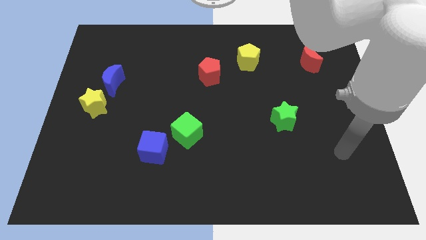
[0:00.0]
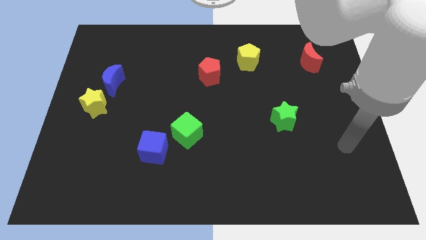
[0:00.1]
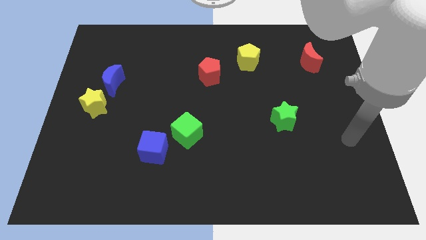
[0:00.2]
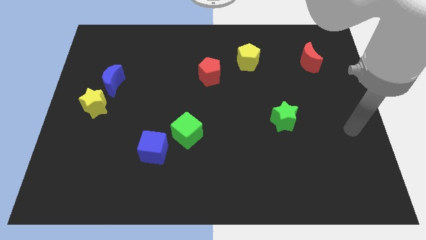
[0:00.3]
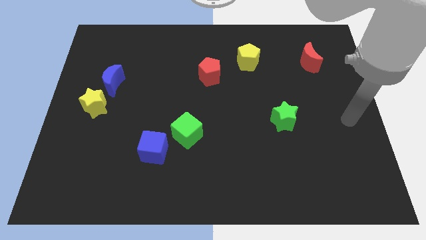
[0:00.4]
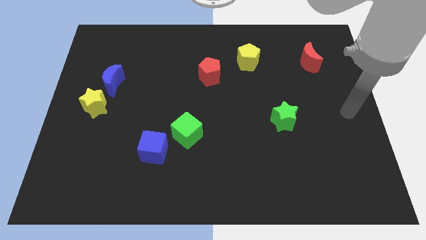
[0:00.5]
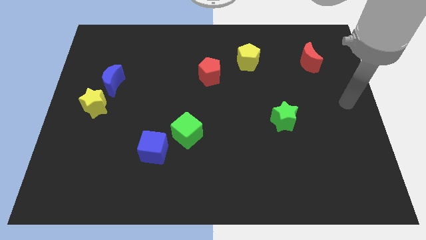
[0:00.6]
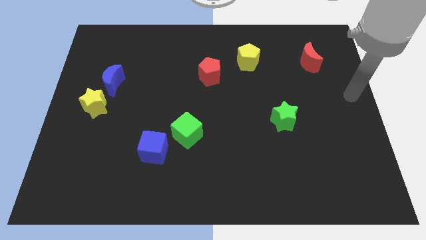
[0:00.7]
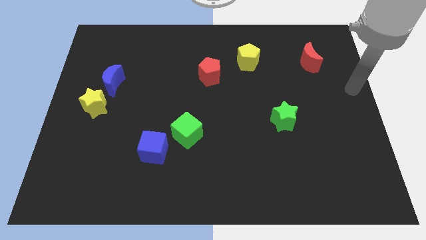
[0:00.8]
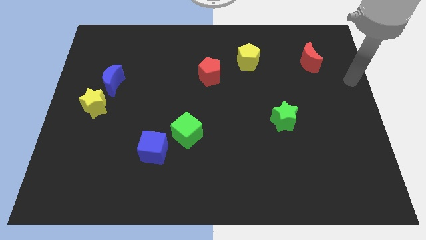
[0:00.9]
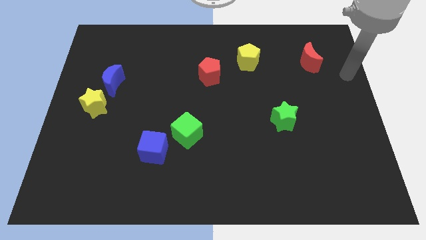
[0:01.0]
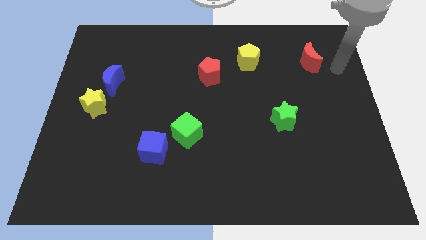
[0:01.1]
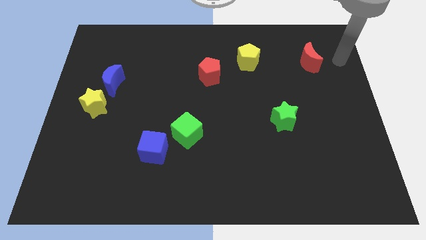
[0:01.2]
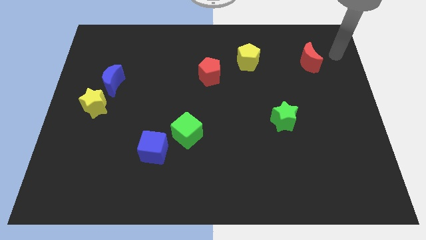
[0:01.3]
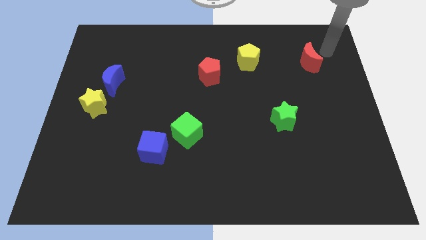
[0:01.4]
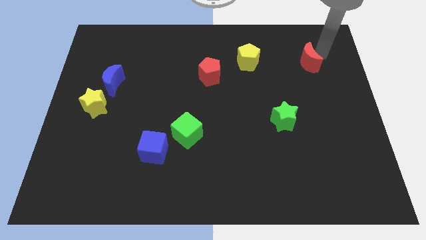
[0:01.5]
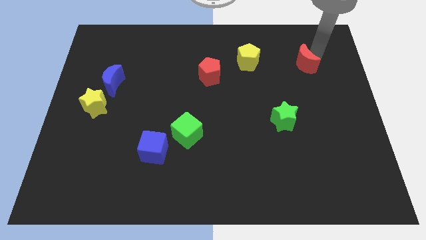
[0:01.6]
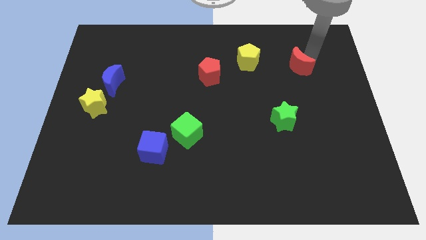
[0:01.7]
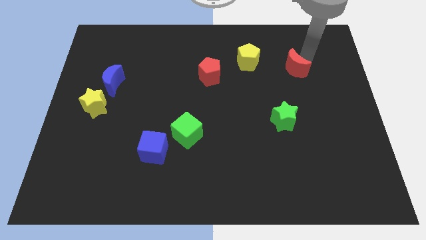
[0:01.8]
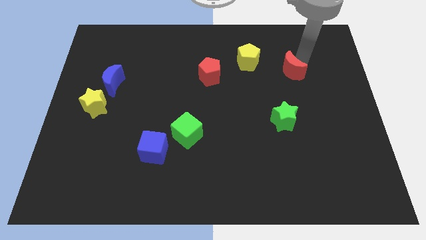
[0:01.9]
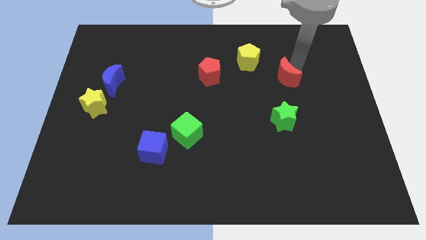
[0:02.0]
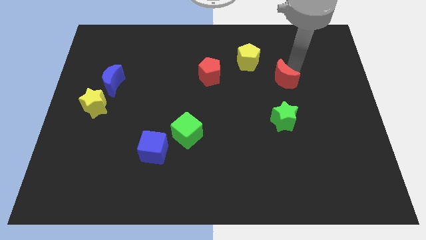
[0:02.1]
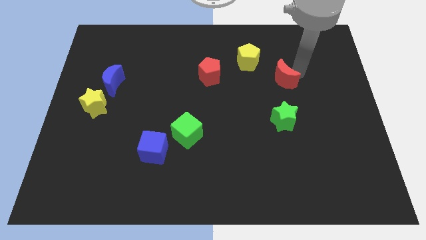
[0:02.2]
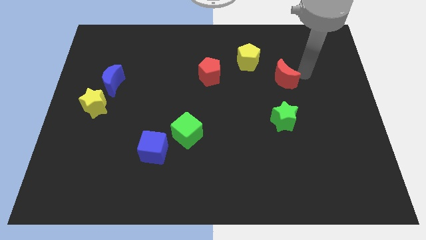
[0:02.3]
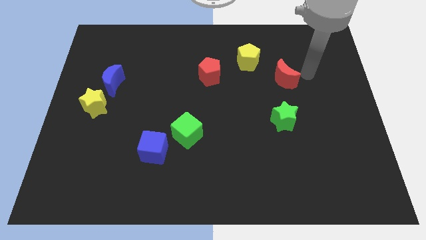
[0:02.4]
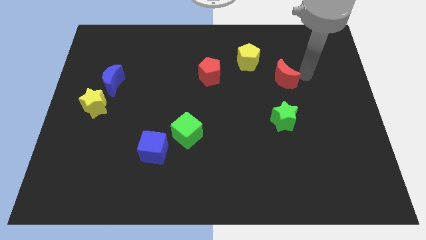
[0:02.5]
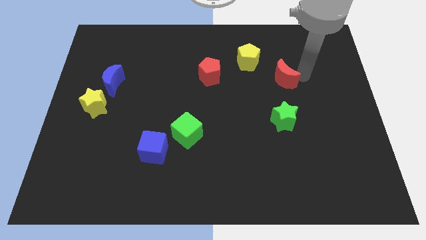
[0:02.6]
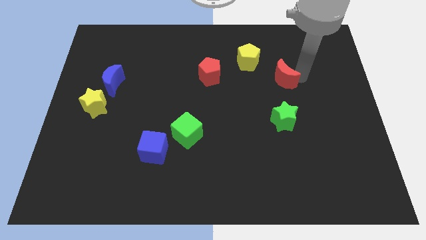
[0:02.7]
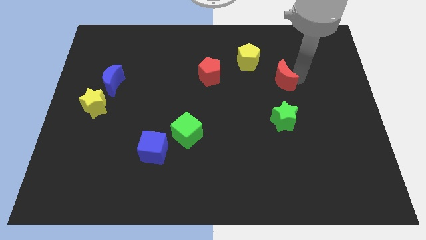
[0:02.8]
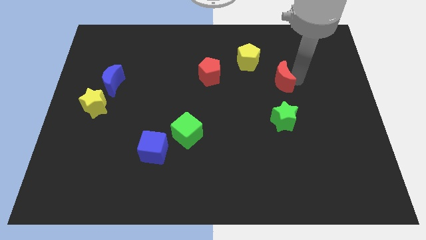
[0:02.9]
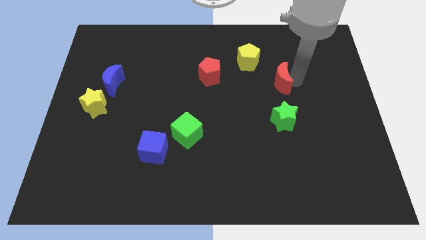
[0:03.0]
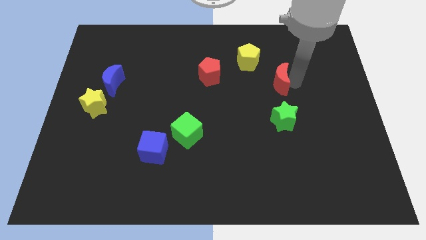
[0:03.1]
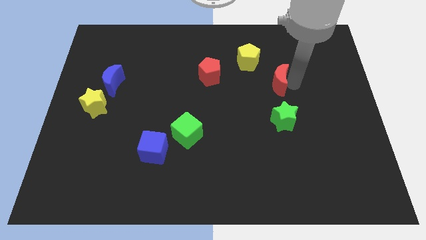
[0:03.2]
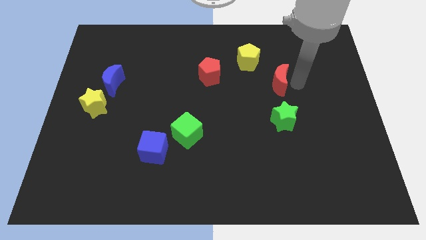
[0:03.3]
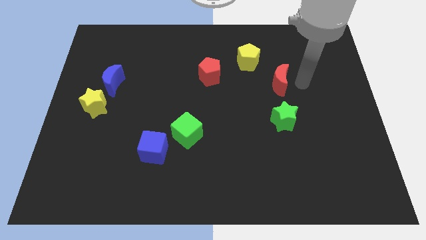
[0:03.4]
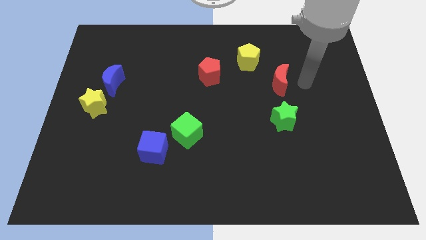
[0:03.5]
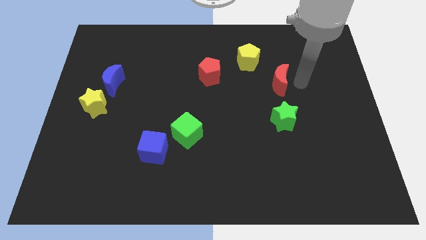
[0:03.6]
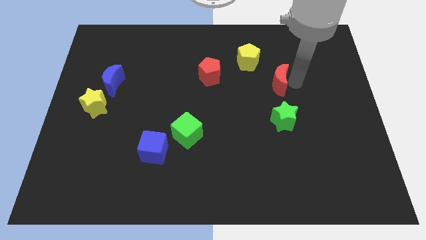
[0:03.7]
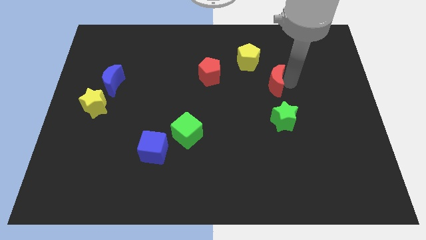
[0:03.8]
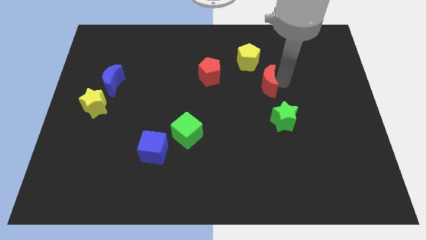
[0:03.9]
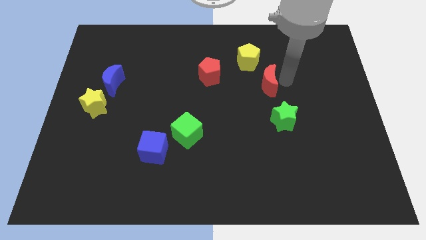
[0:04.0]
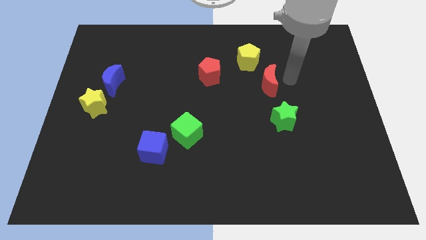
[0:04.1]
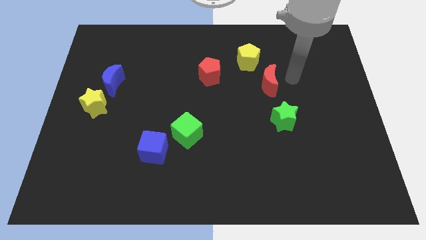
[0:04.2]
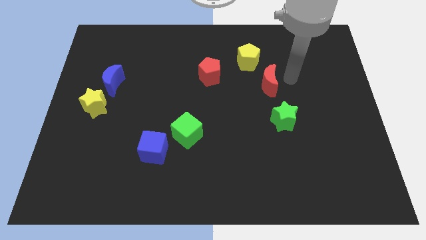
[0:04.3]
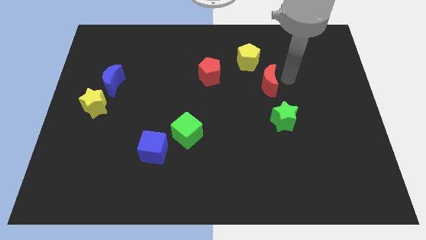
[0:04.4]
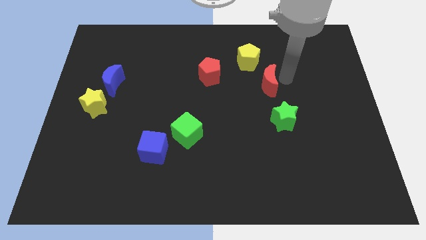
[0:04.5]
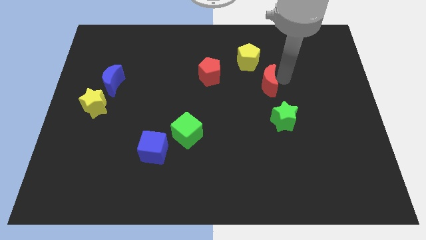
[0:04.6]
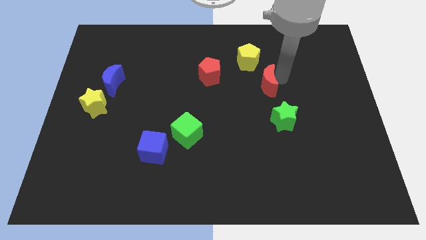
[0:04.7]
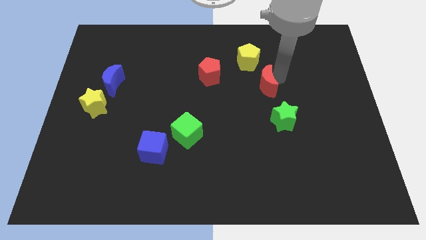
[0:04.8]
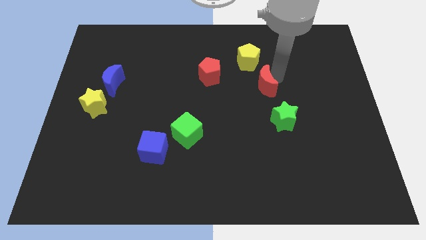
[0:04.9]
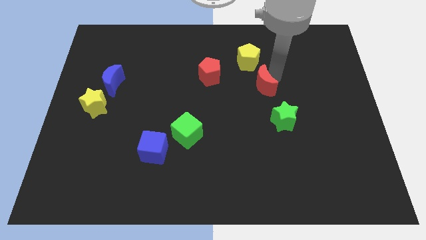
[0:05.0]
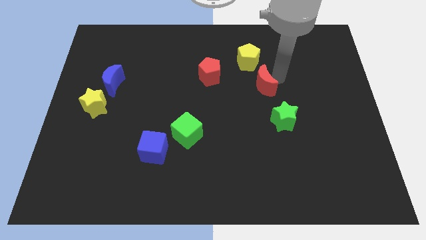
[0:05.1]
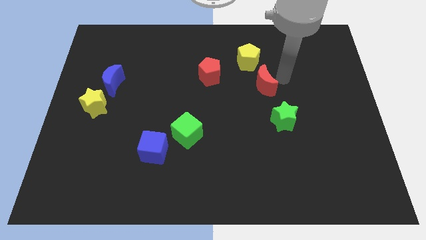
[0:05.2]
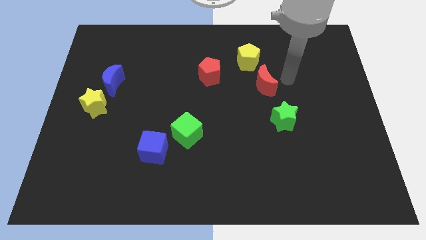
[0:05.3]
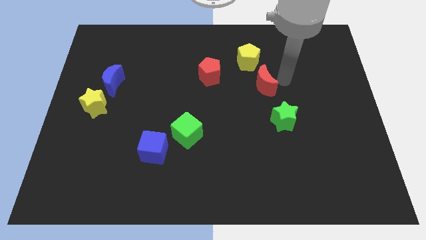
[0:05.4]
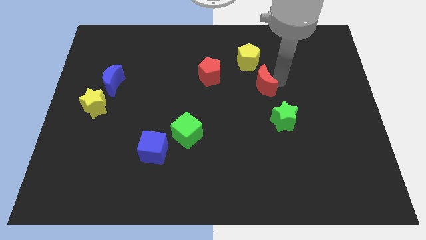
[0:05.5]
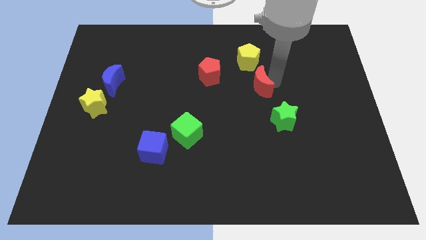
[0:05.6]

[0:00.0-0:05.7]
put the red moon to the center of the board
